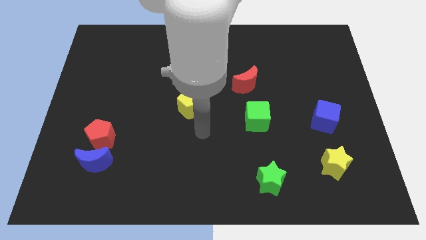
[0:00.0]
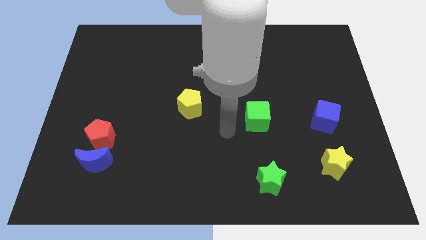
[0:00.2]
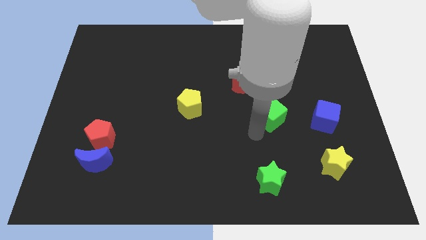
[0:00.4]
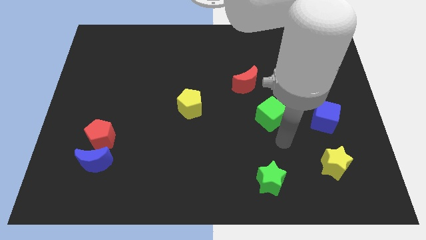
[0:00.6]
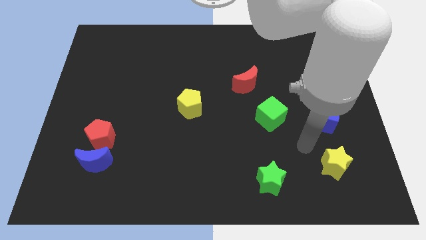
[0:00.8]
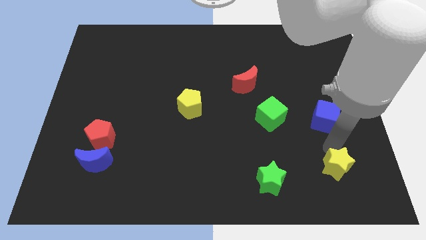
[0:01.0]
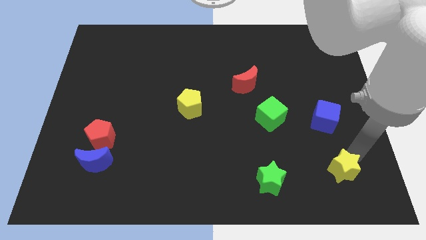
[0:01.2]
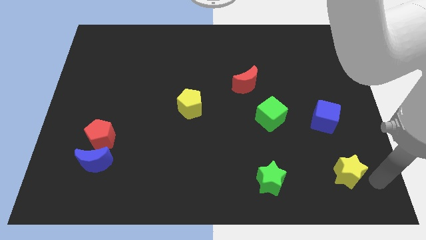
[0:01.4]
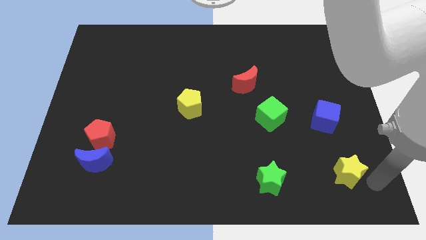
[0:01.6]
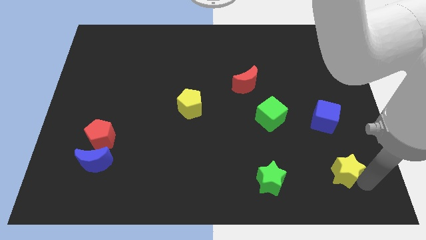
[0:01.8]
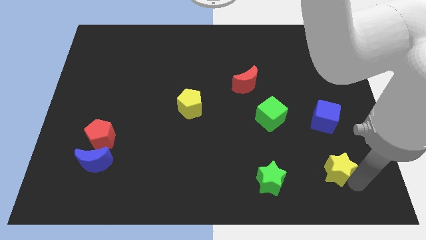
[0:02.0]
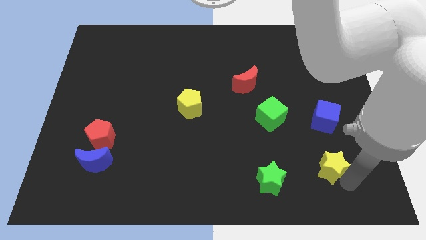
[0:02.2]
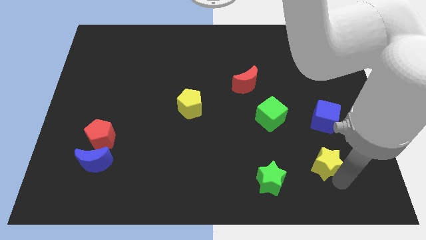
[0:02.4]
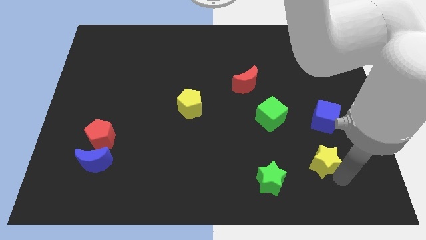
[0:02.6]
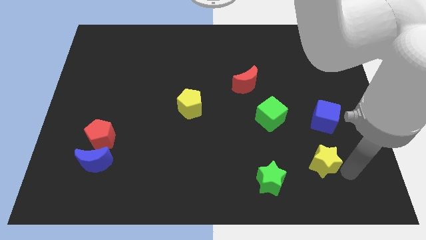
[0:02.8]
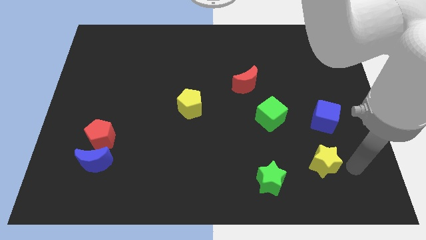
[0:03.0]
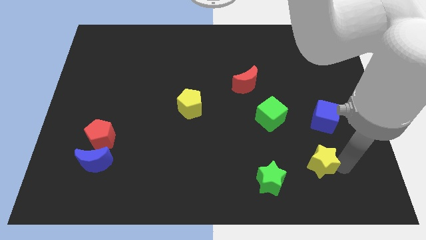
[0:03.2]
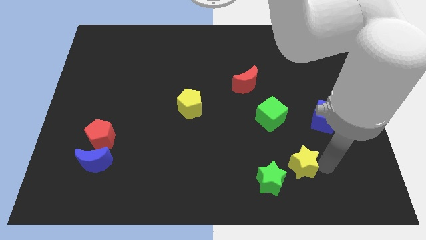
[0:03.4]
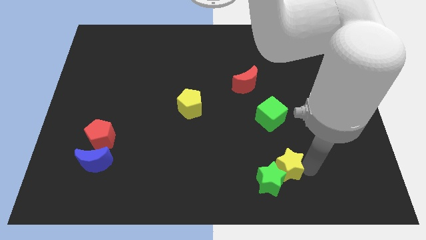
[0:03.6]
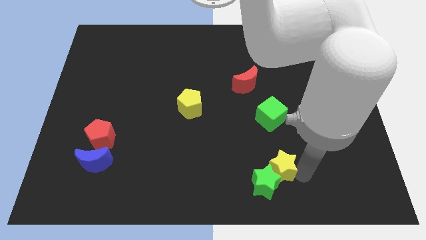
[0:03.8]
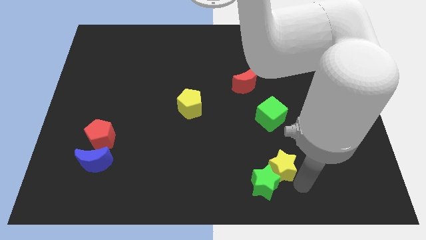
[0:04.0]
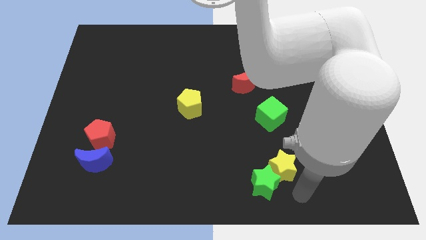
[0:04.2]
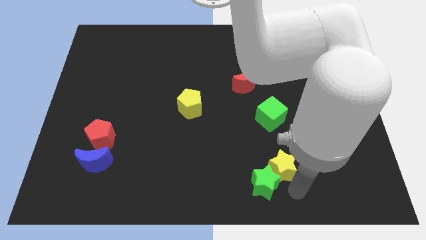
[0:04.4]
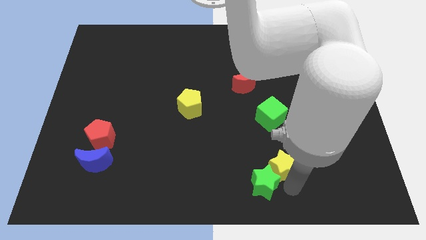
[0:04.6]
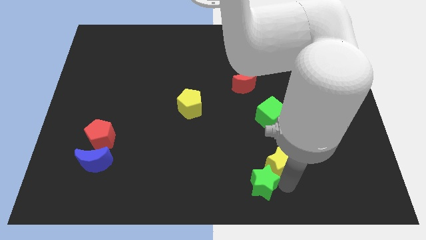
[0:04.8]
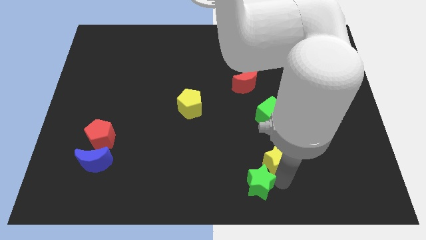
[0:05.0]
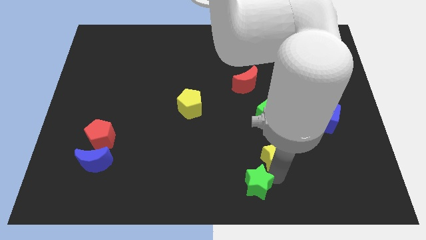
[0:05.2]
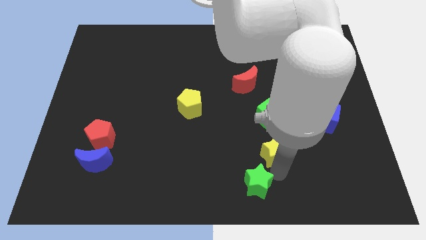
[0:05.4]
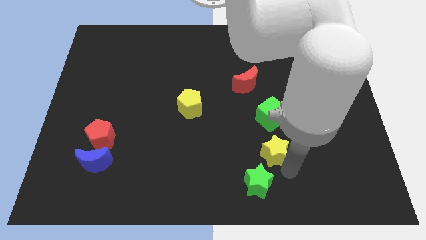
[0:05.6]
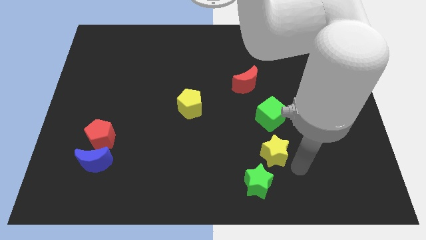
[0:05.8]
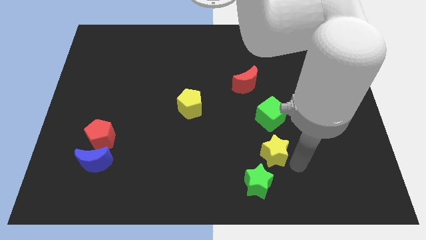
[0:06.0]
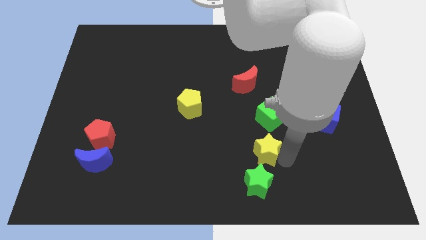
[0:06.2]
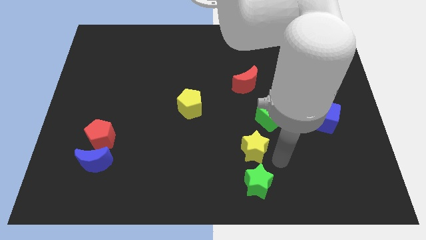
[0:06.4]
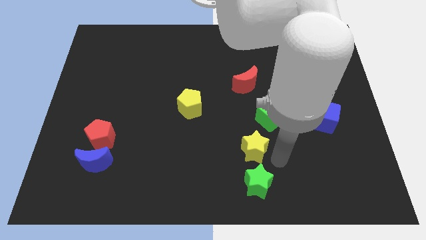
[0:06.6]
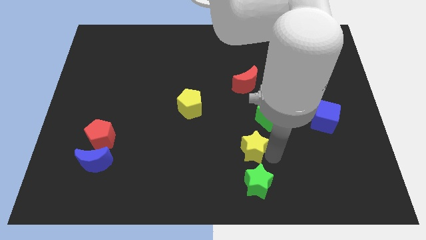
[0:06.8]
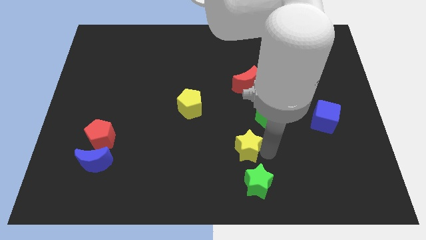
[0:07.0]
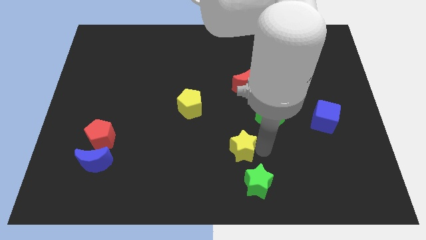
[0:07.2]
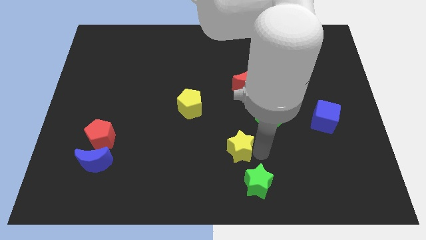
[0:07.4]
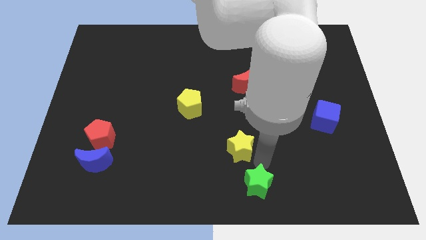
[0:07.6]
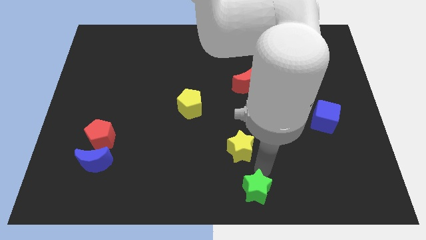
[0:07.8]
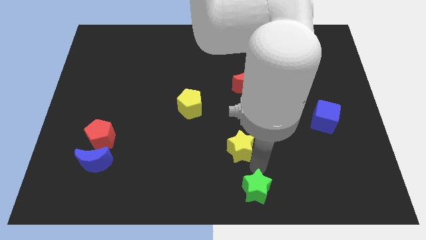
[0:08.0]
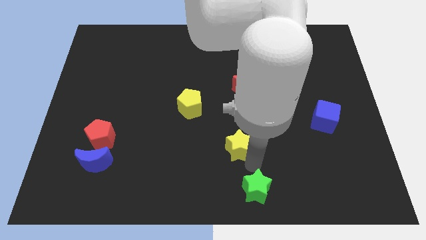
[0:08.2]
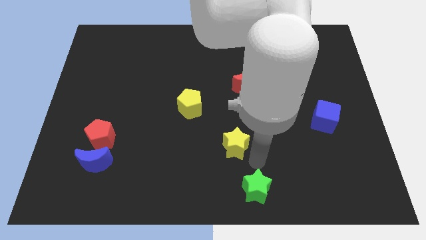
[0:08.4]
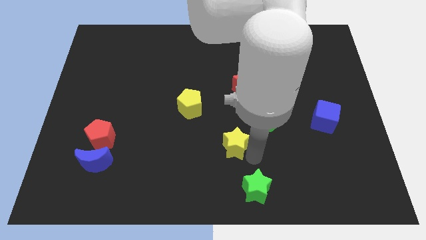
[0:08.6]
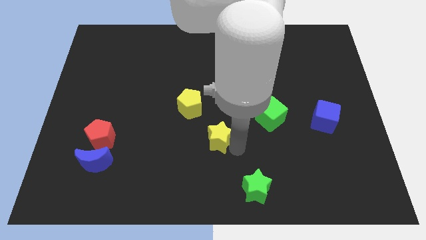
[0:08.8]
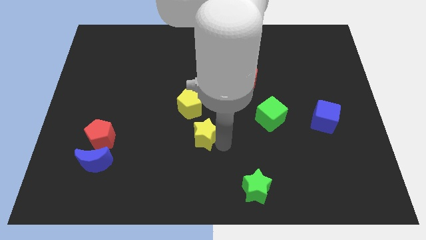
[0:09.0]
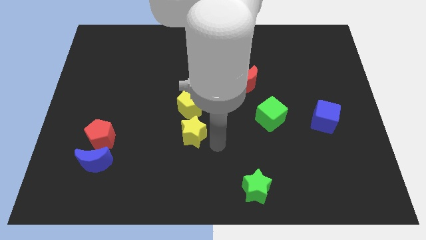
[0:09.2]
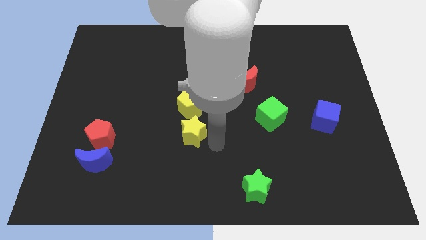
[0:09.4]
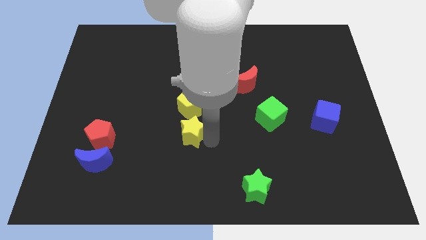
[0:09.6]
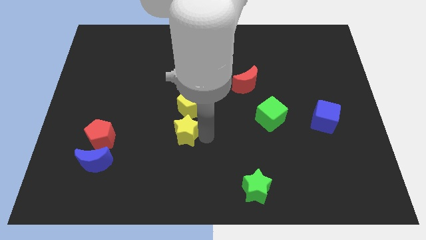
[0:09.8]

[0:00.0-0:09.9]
move the yellow star to the bottom left of the yellow pentagon

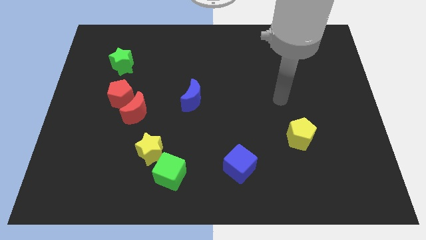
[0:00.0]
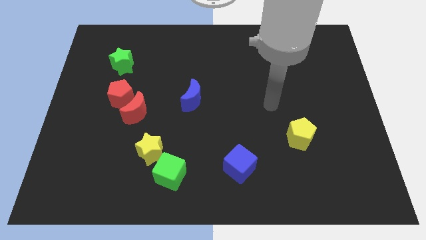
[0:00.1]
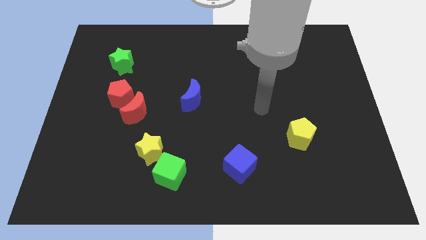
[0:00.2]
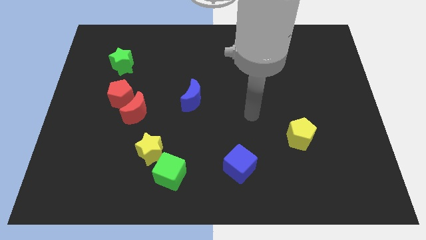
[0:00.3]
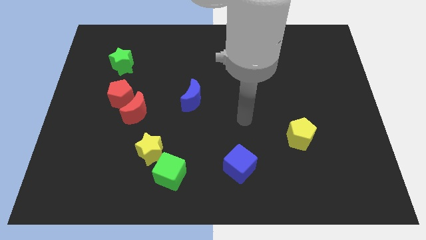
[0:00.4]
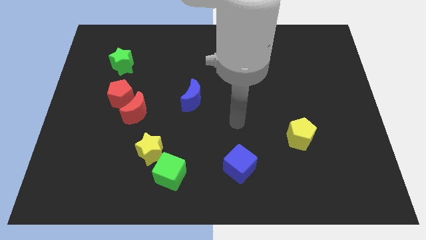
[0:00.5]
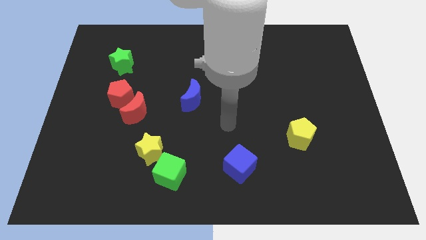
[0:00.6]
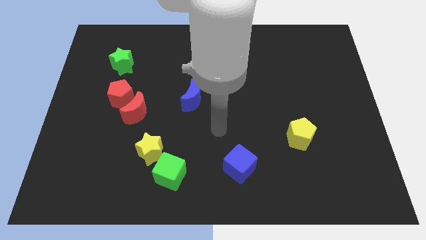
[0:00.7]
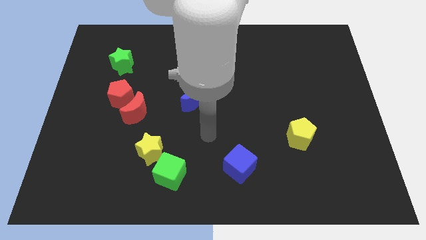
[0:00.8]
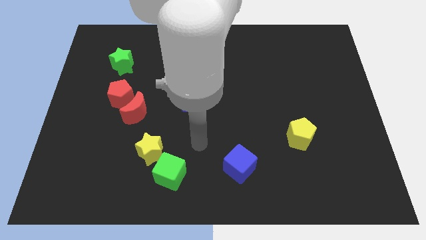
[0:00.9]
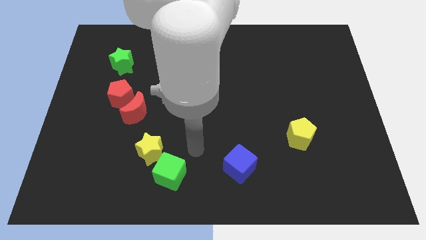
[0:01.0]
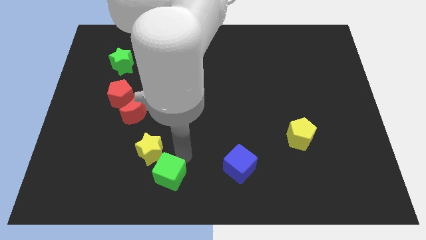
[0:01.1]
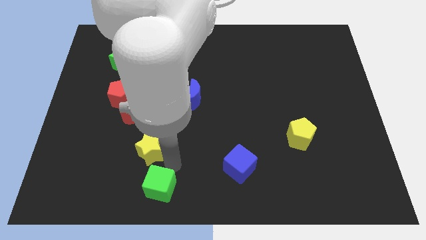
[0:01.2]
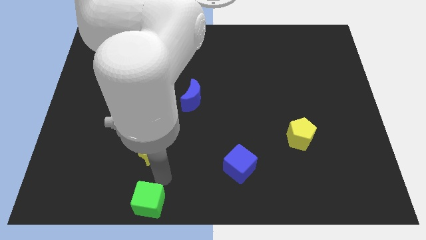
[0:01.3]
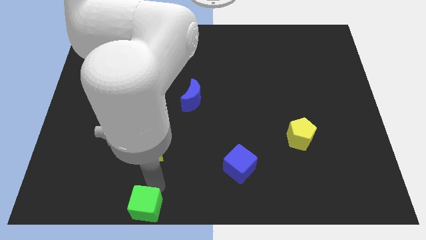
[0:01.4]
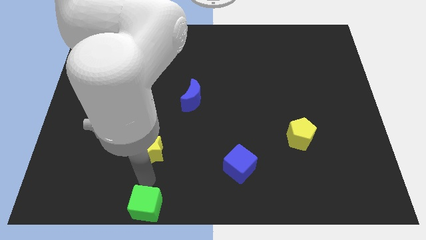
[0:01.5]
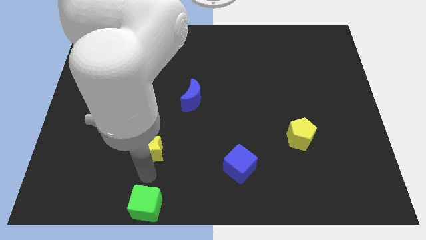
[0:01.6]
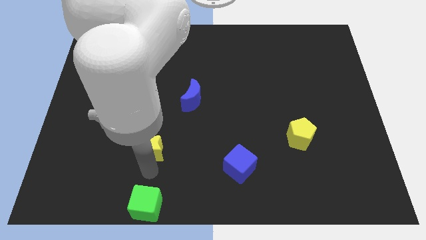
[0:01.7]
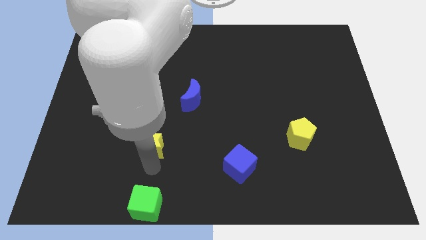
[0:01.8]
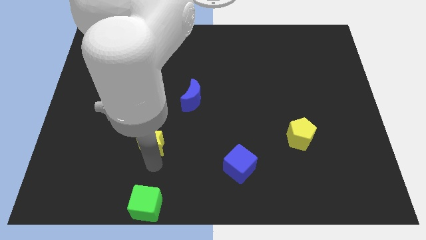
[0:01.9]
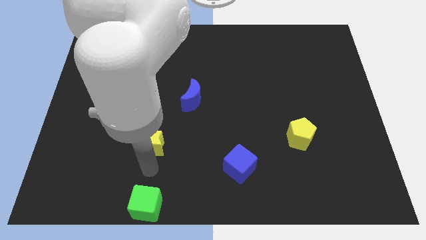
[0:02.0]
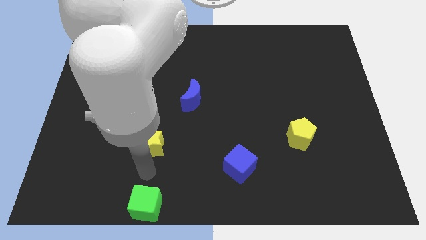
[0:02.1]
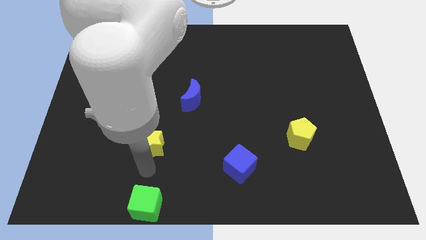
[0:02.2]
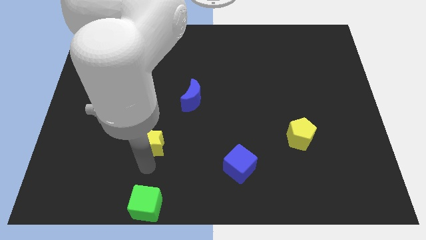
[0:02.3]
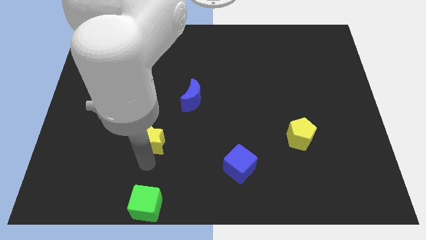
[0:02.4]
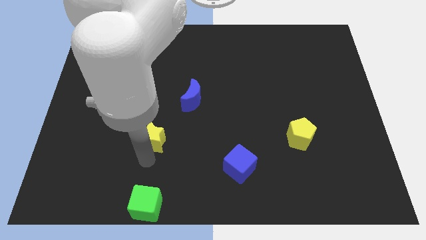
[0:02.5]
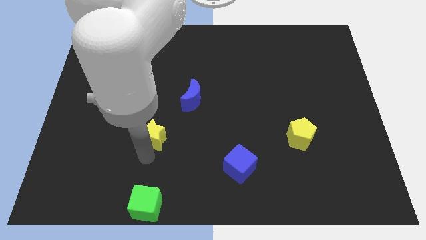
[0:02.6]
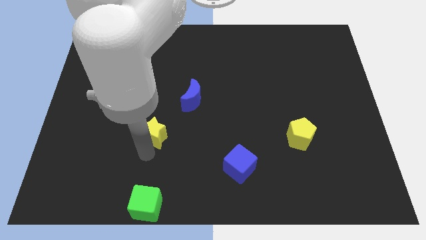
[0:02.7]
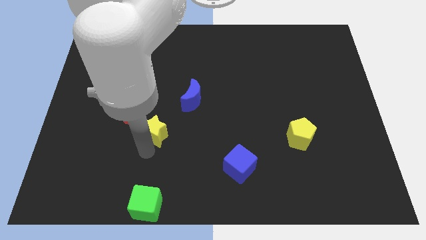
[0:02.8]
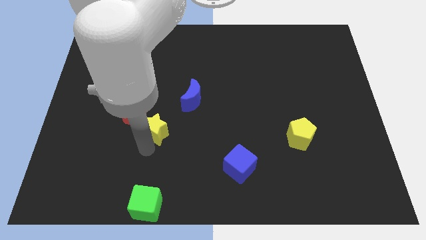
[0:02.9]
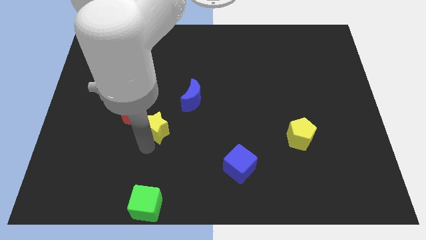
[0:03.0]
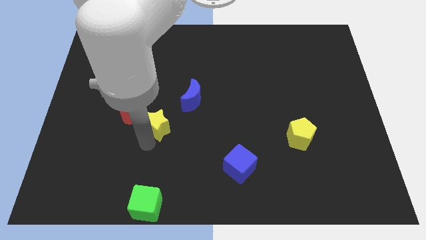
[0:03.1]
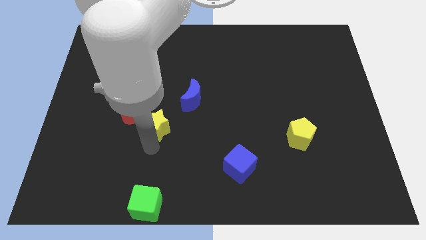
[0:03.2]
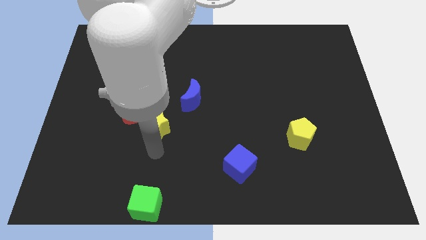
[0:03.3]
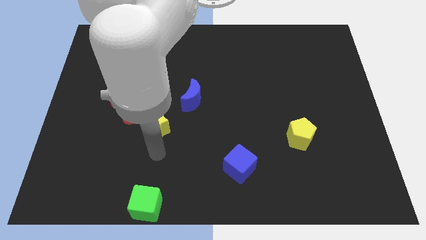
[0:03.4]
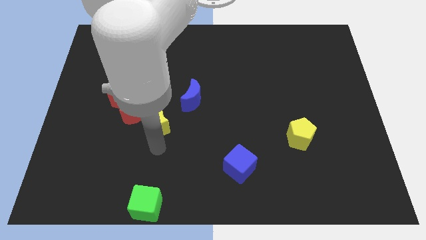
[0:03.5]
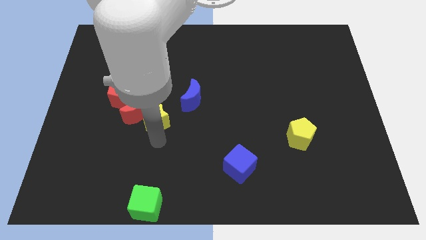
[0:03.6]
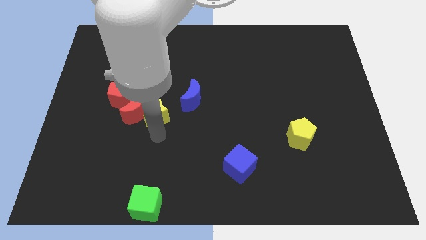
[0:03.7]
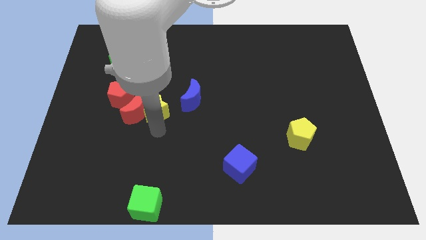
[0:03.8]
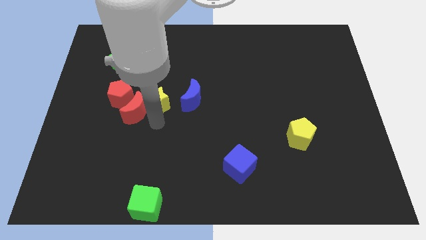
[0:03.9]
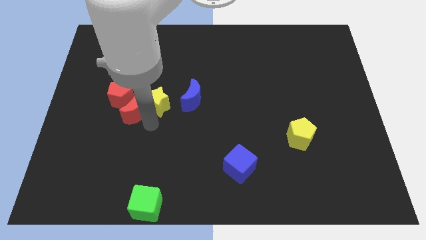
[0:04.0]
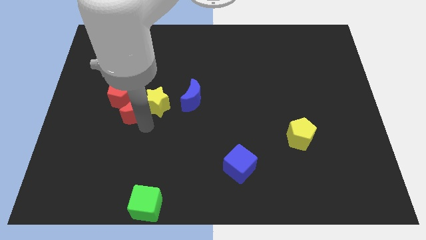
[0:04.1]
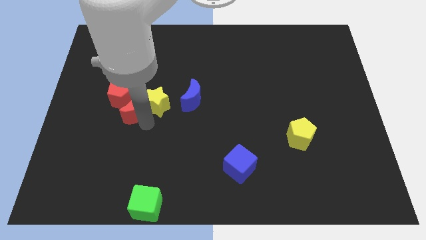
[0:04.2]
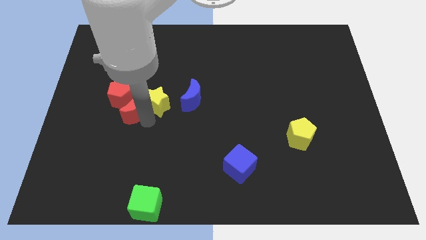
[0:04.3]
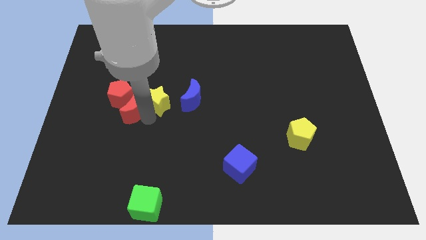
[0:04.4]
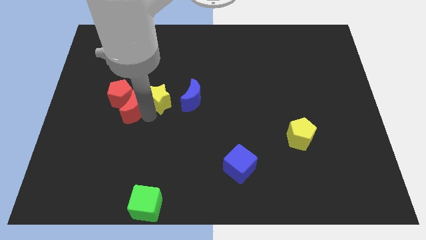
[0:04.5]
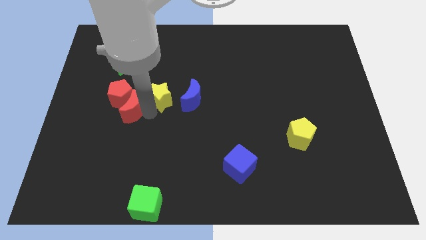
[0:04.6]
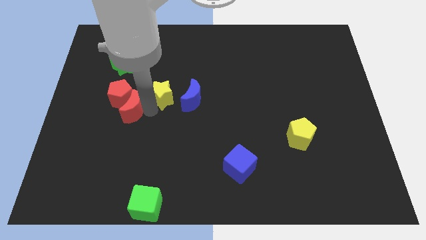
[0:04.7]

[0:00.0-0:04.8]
move the yellow star to the top left side of the blue moon
